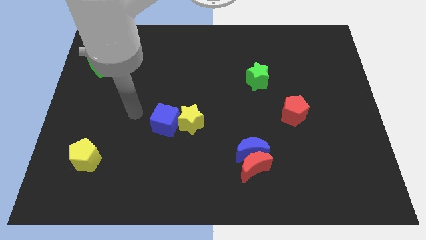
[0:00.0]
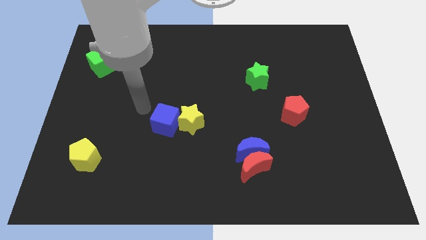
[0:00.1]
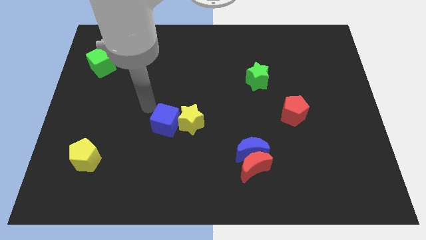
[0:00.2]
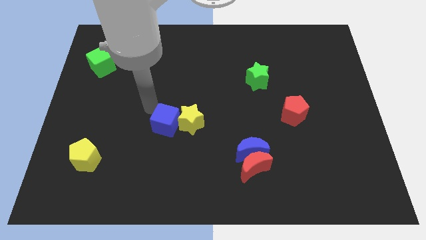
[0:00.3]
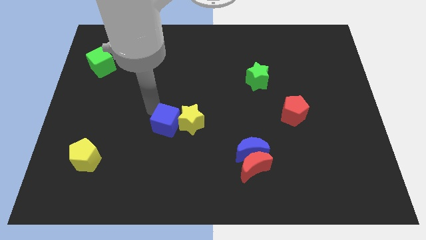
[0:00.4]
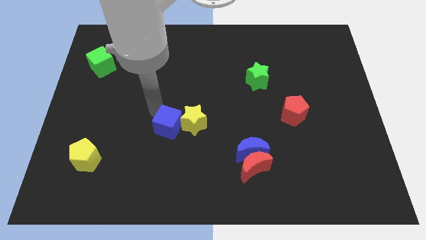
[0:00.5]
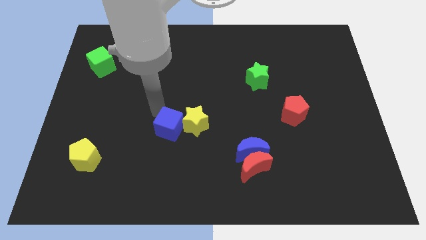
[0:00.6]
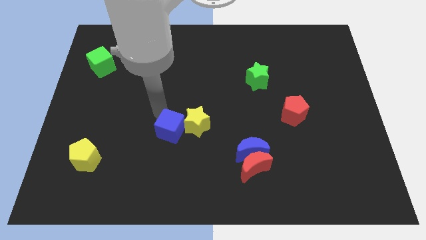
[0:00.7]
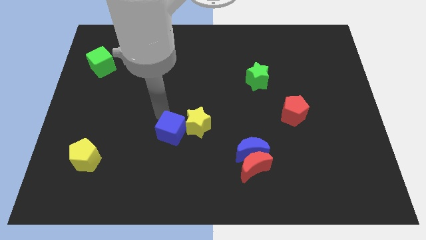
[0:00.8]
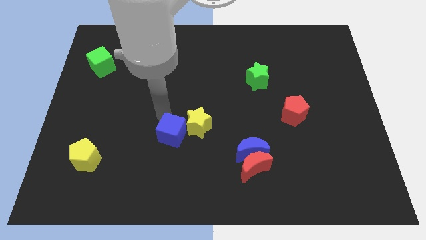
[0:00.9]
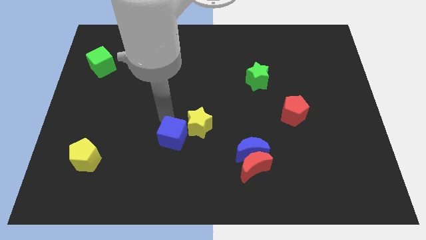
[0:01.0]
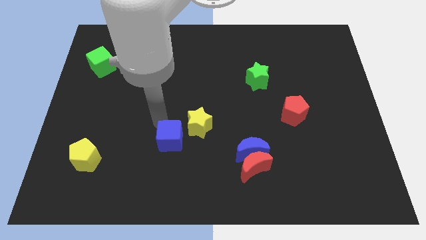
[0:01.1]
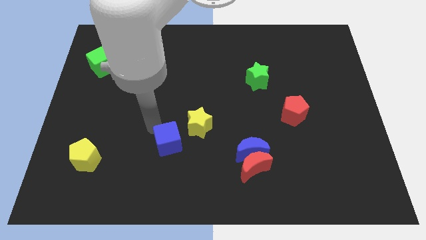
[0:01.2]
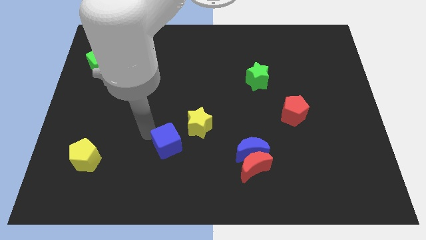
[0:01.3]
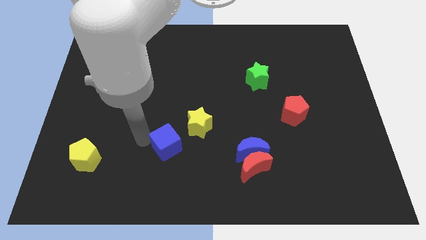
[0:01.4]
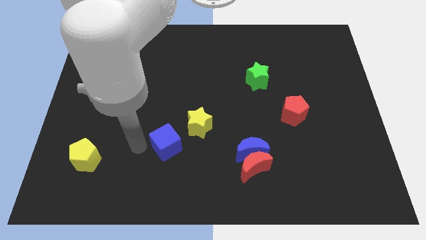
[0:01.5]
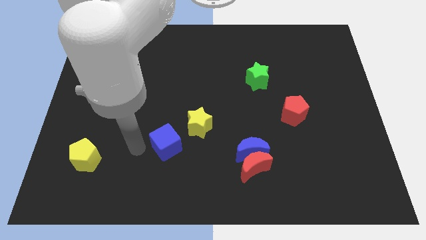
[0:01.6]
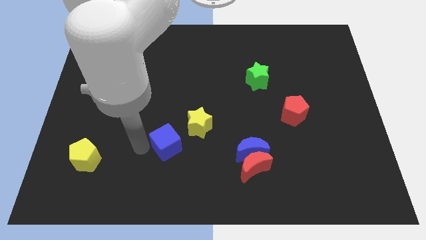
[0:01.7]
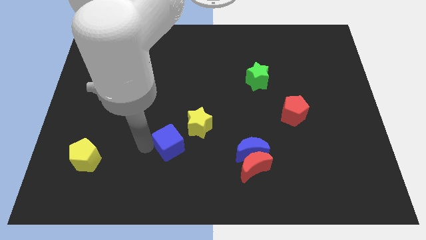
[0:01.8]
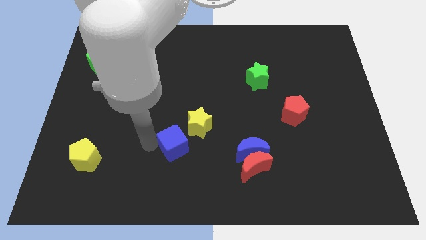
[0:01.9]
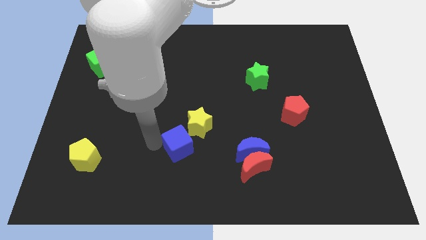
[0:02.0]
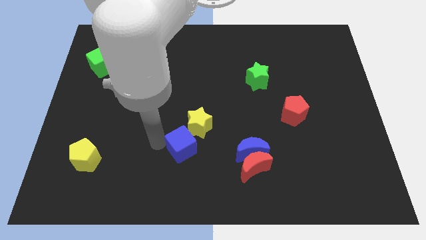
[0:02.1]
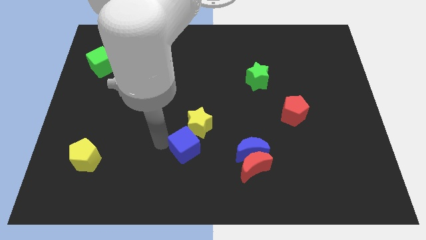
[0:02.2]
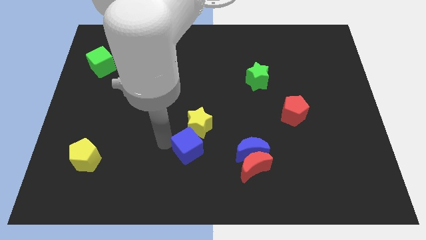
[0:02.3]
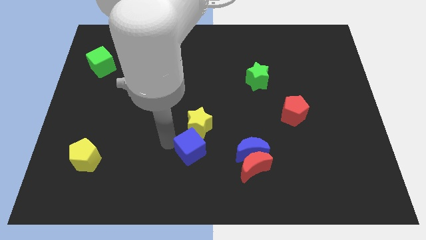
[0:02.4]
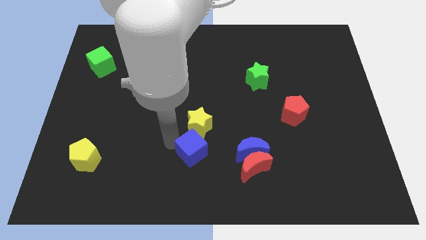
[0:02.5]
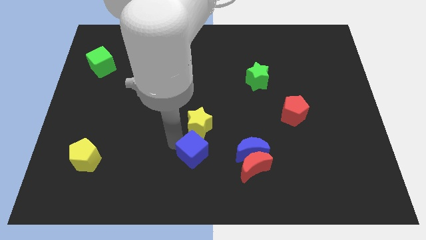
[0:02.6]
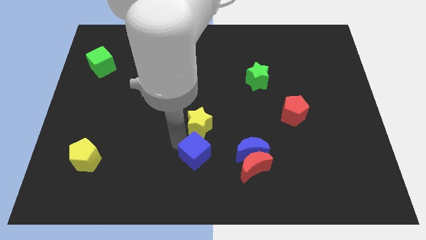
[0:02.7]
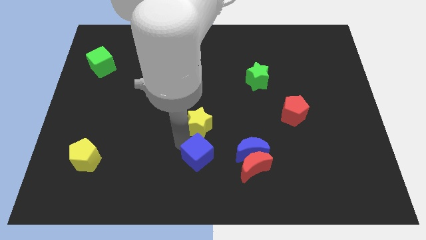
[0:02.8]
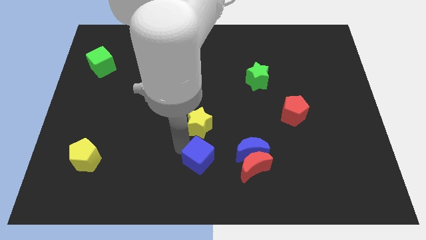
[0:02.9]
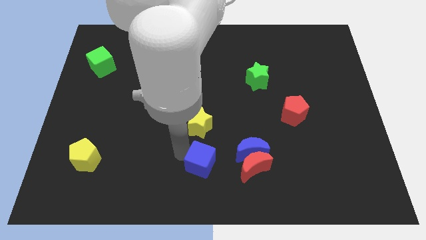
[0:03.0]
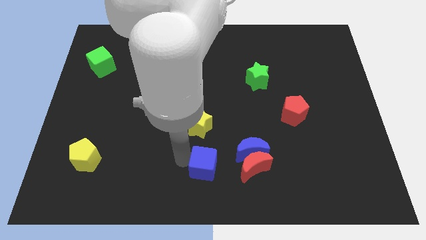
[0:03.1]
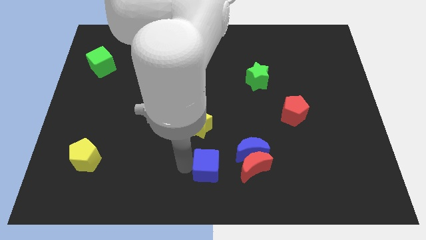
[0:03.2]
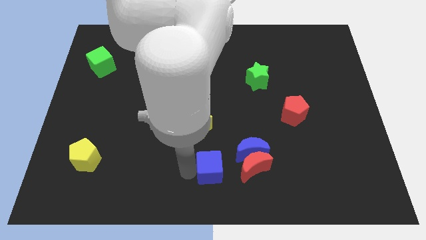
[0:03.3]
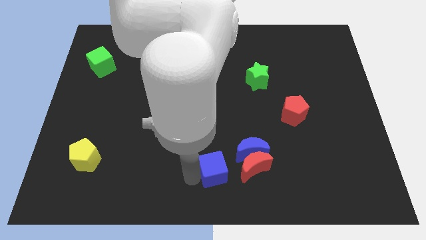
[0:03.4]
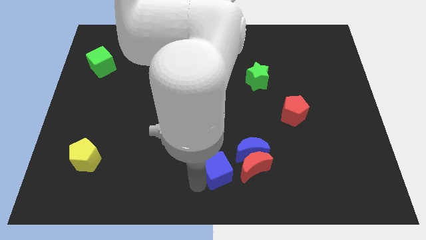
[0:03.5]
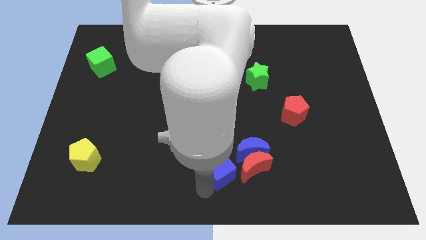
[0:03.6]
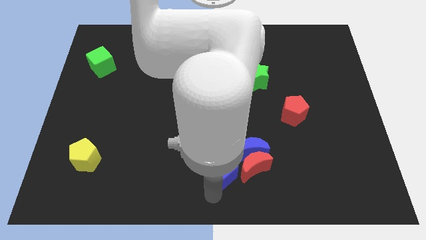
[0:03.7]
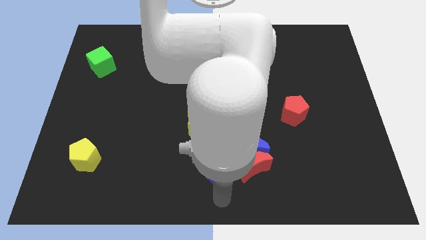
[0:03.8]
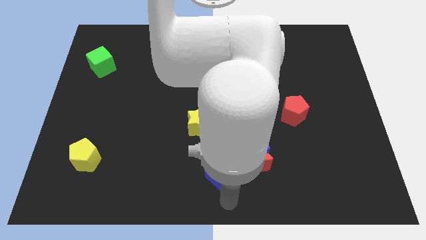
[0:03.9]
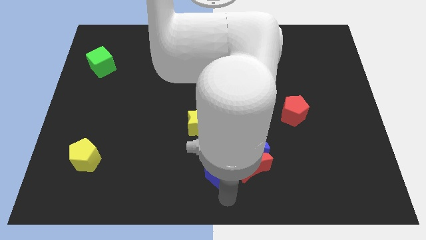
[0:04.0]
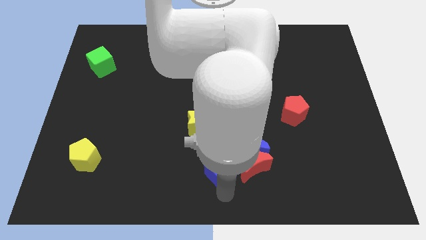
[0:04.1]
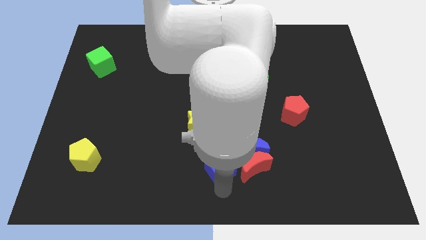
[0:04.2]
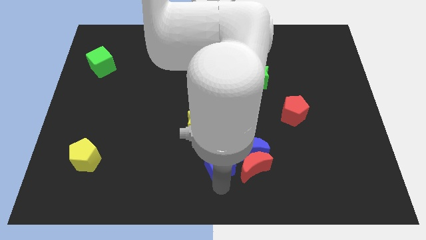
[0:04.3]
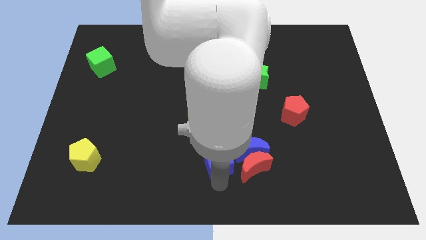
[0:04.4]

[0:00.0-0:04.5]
slightly push the blue cube to the right

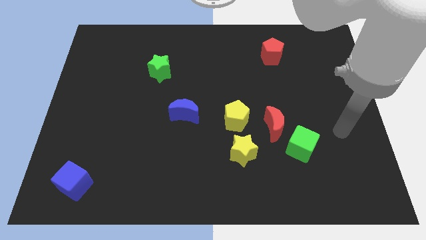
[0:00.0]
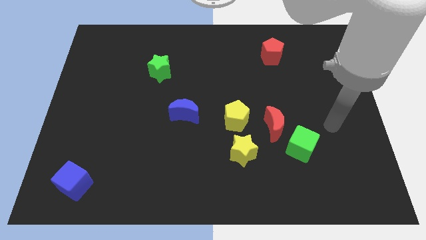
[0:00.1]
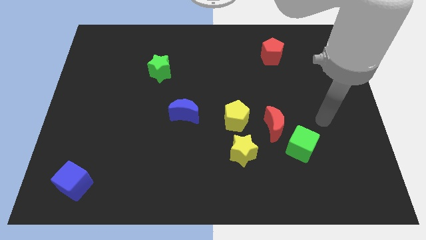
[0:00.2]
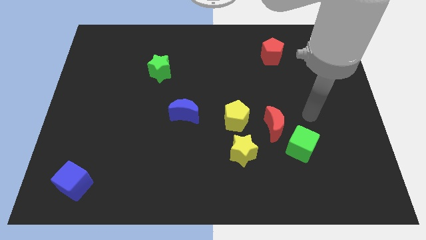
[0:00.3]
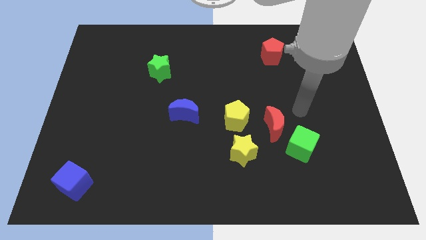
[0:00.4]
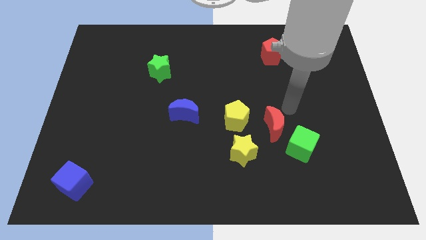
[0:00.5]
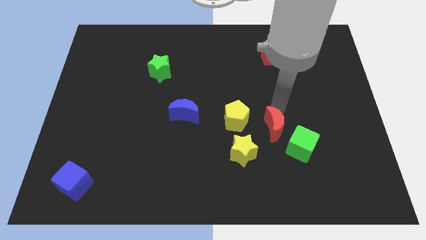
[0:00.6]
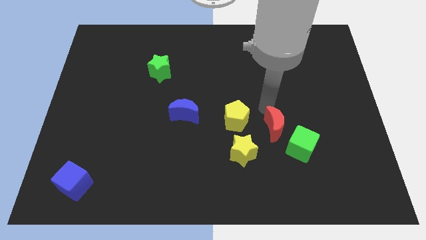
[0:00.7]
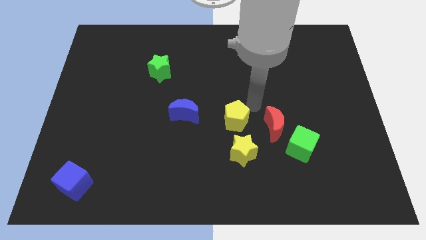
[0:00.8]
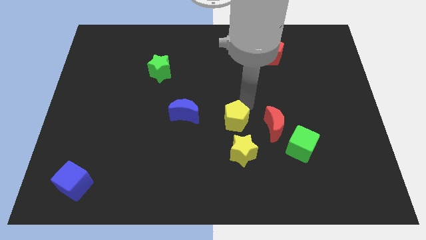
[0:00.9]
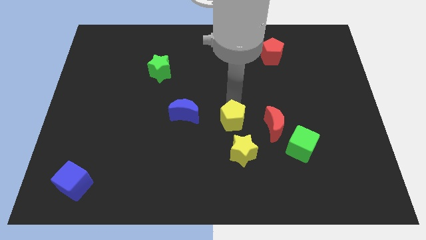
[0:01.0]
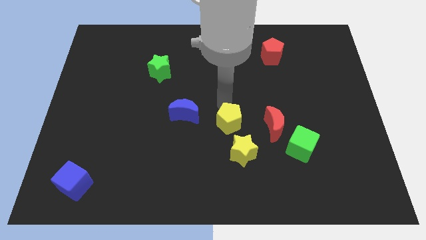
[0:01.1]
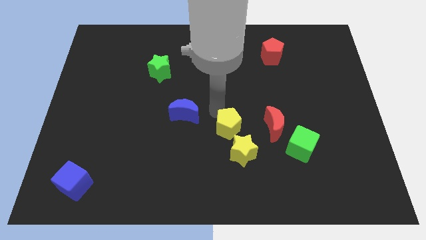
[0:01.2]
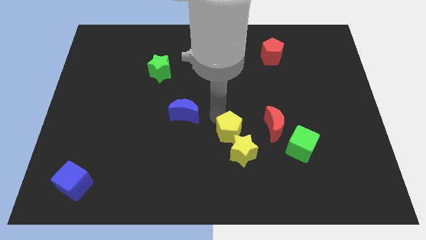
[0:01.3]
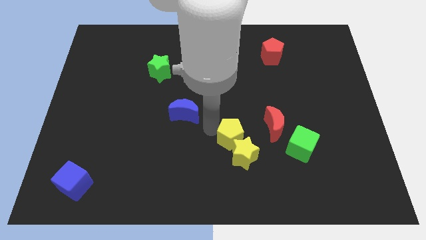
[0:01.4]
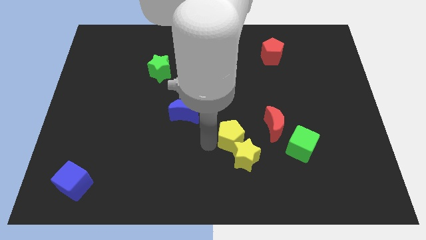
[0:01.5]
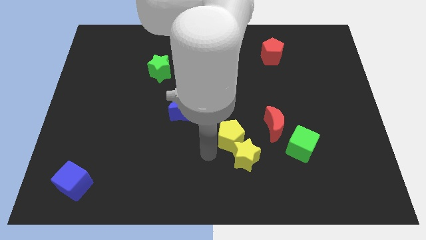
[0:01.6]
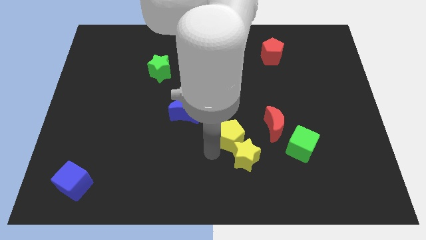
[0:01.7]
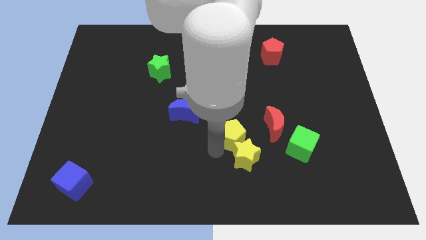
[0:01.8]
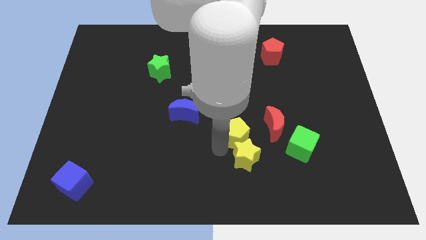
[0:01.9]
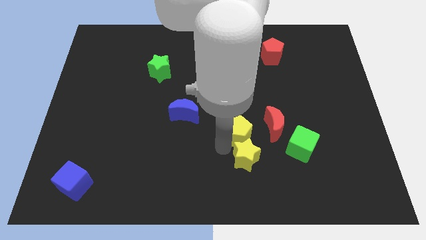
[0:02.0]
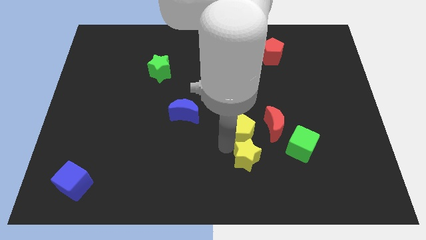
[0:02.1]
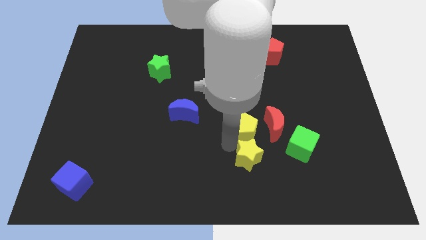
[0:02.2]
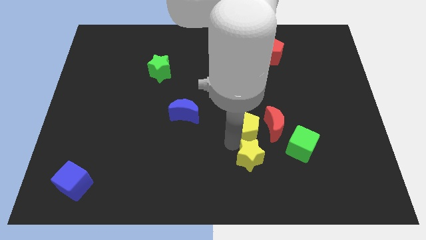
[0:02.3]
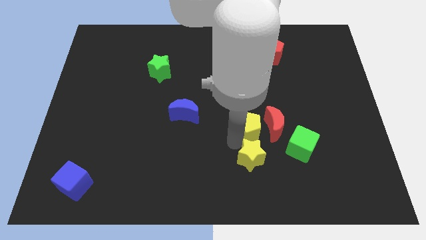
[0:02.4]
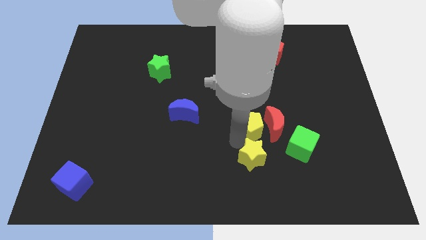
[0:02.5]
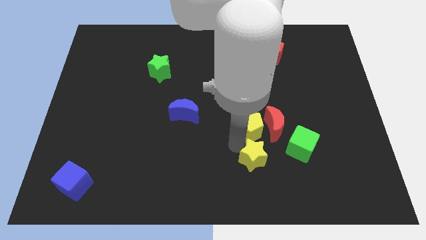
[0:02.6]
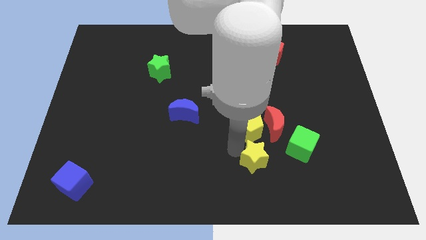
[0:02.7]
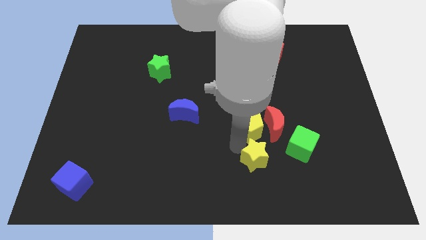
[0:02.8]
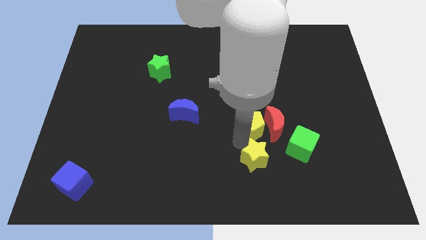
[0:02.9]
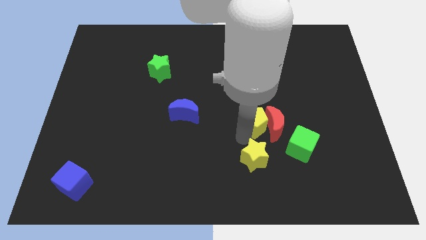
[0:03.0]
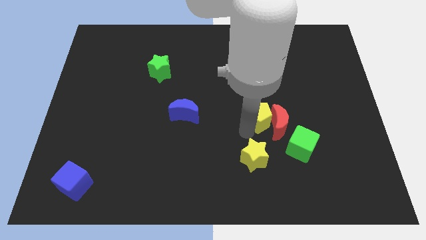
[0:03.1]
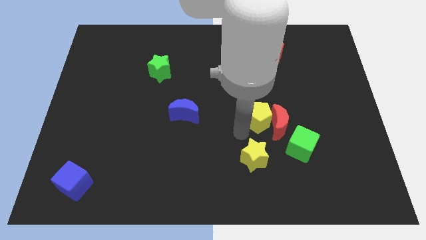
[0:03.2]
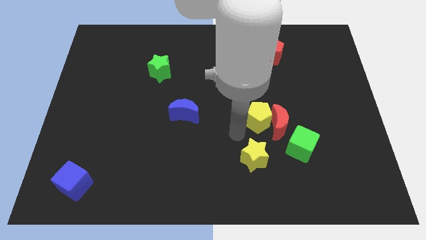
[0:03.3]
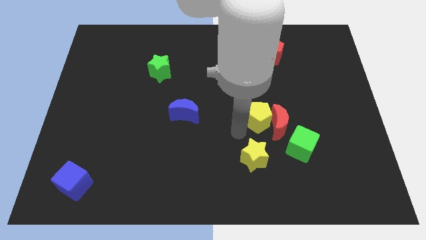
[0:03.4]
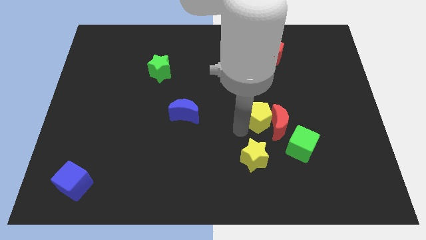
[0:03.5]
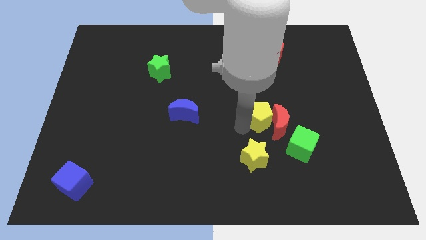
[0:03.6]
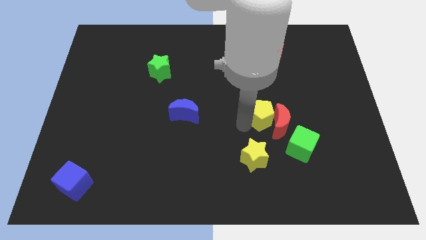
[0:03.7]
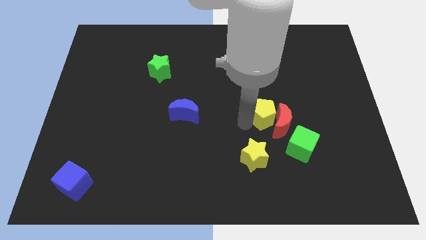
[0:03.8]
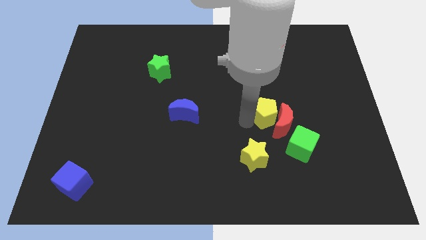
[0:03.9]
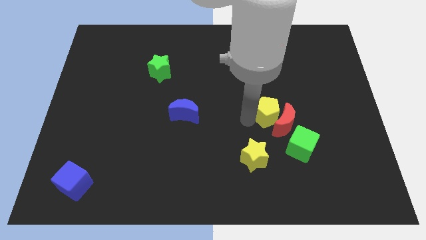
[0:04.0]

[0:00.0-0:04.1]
push the yellow pentagon a little right
